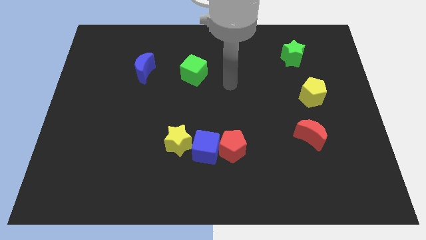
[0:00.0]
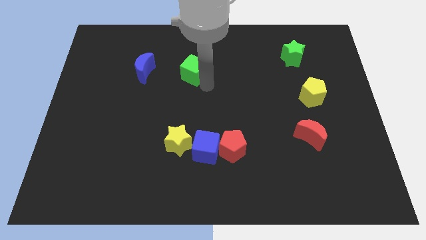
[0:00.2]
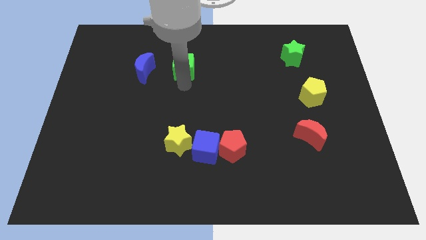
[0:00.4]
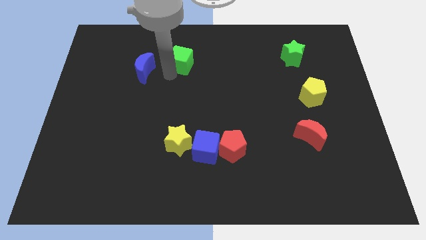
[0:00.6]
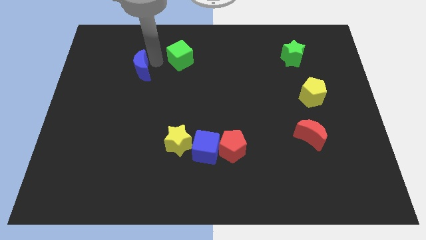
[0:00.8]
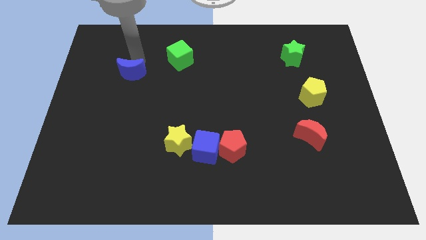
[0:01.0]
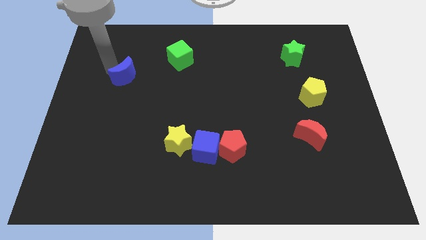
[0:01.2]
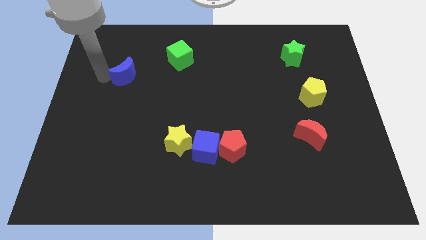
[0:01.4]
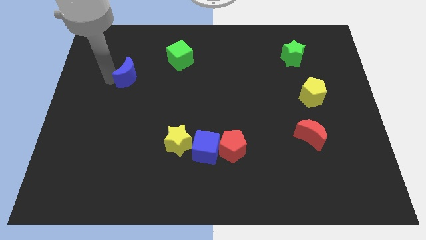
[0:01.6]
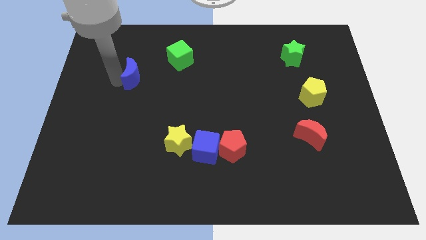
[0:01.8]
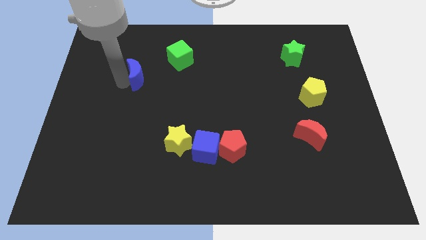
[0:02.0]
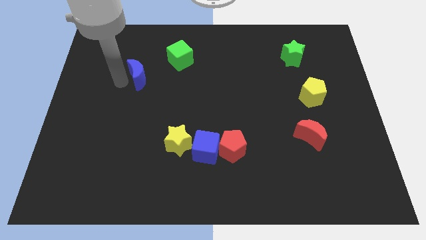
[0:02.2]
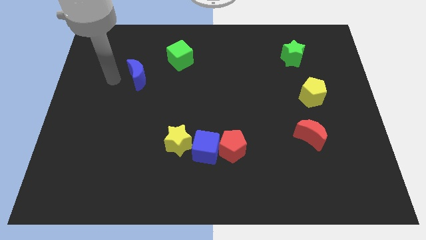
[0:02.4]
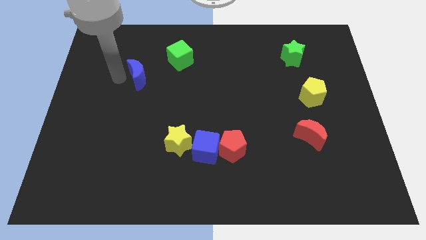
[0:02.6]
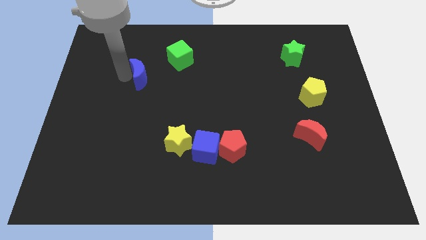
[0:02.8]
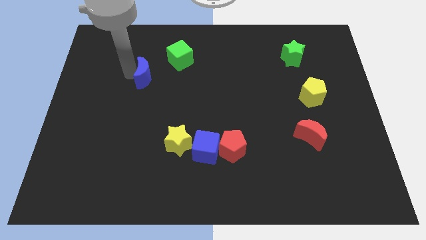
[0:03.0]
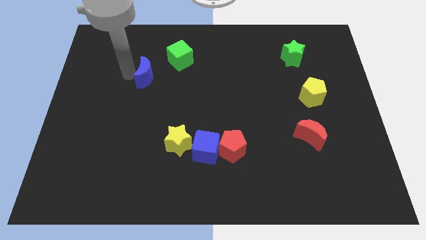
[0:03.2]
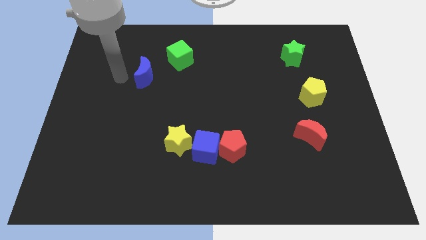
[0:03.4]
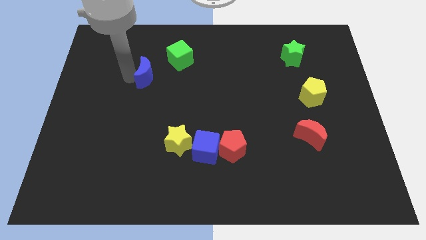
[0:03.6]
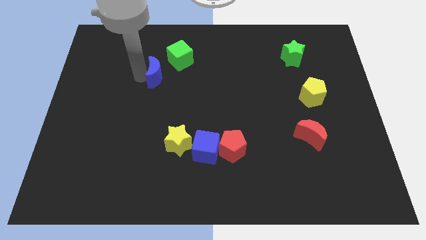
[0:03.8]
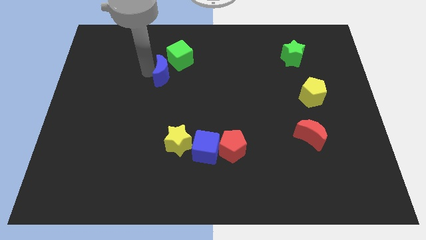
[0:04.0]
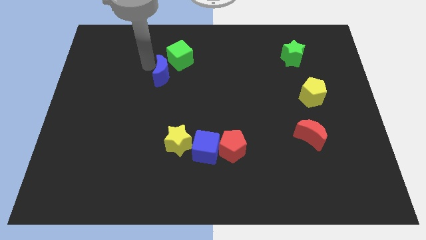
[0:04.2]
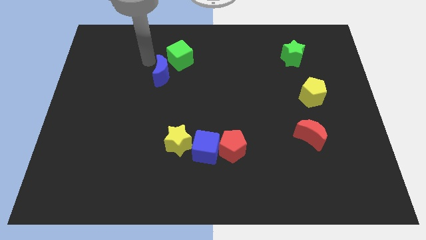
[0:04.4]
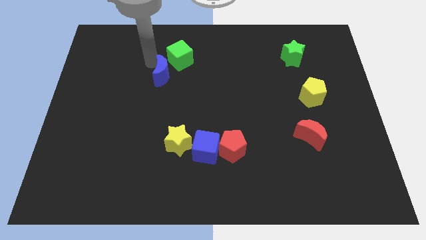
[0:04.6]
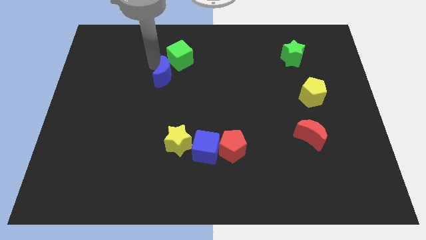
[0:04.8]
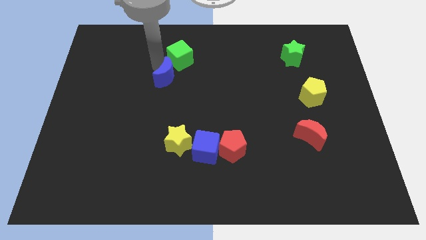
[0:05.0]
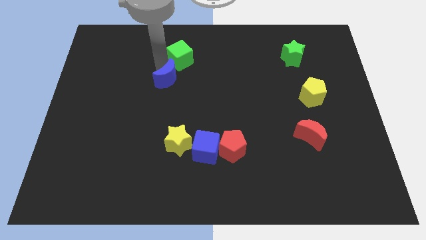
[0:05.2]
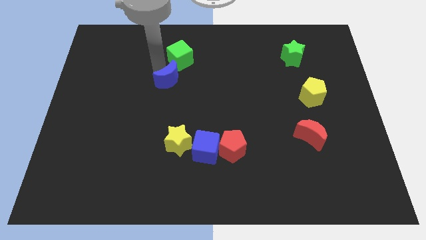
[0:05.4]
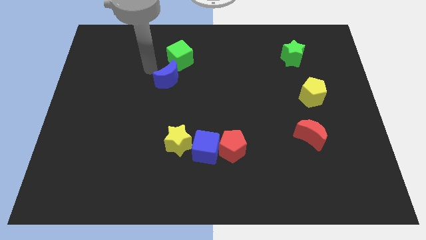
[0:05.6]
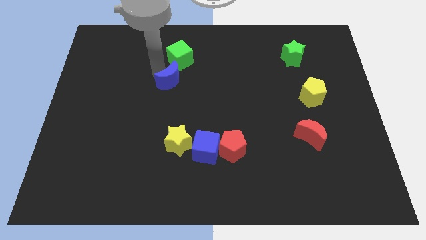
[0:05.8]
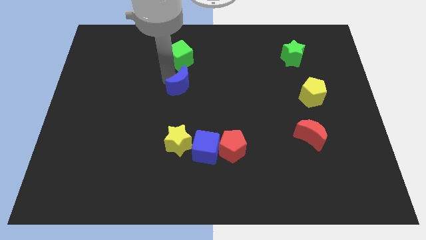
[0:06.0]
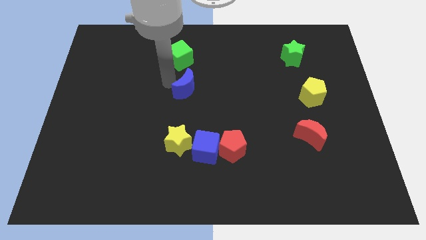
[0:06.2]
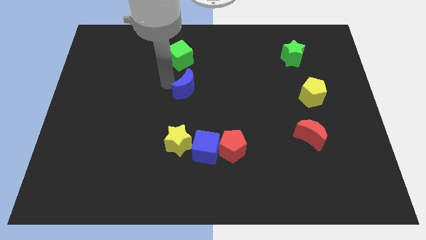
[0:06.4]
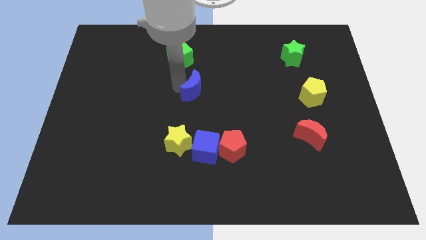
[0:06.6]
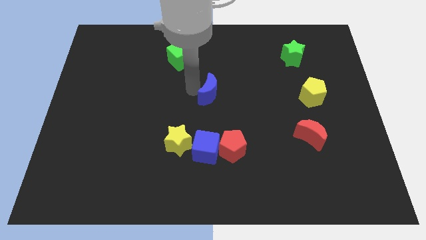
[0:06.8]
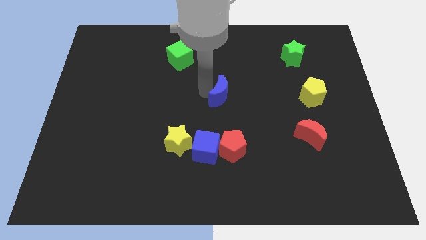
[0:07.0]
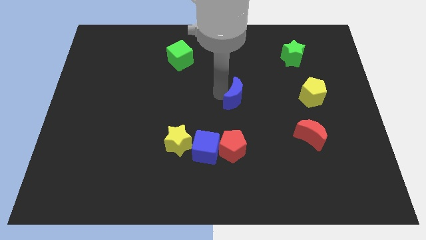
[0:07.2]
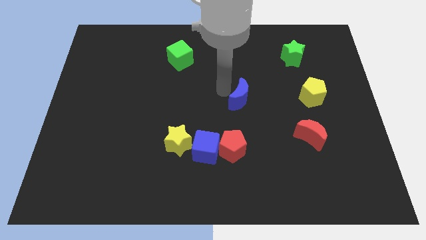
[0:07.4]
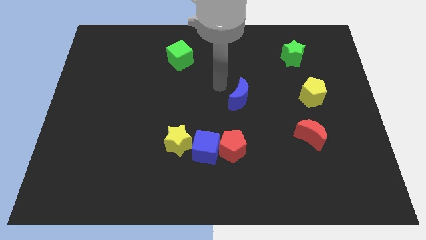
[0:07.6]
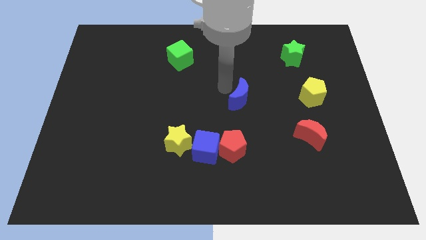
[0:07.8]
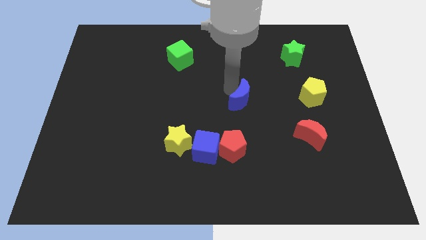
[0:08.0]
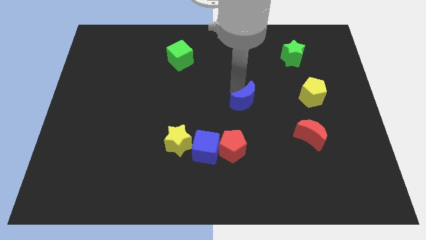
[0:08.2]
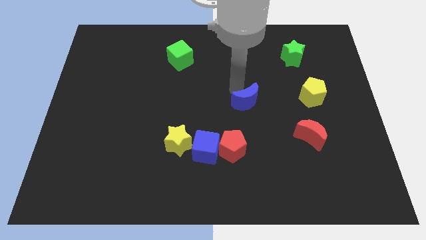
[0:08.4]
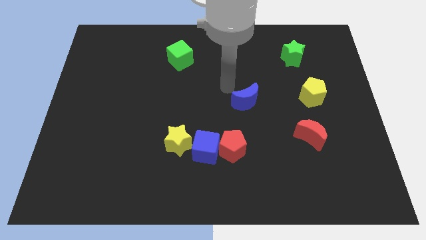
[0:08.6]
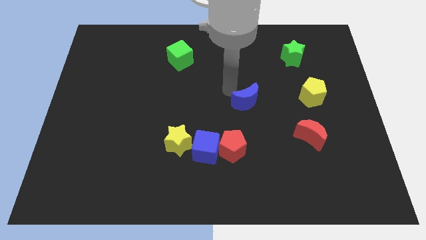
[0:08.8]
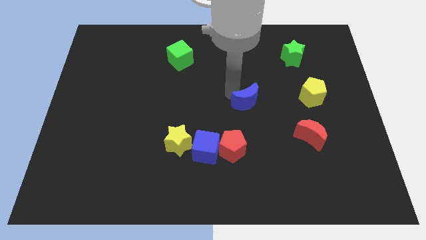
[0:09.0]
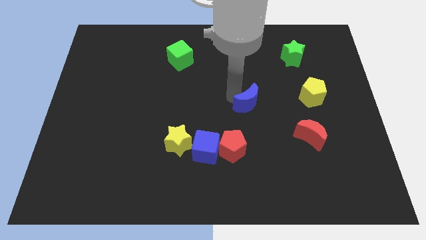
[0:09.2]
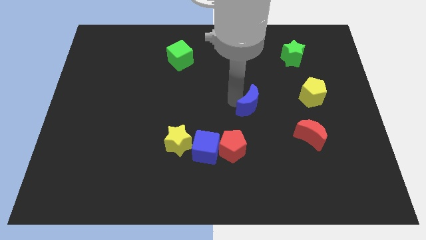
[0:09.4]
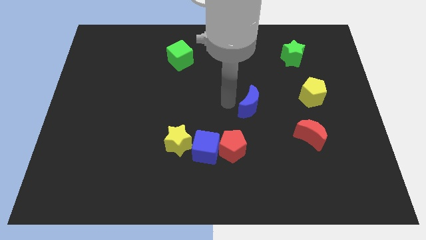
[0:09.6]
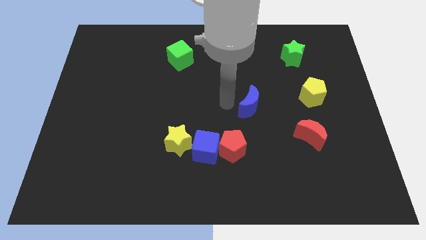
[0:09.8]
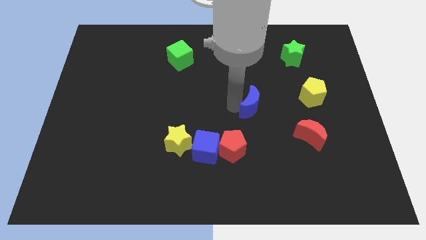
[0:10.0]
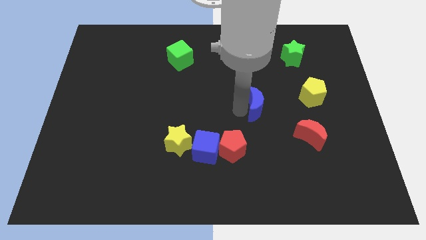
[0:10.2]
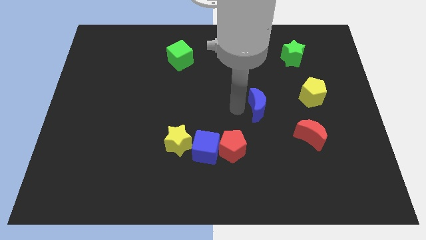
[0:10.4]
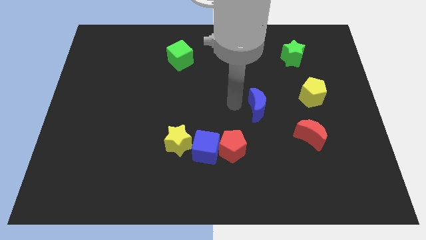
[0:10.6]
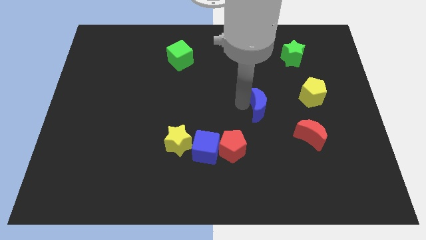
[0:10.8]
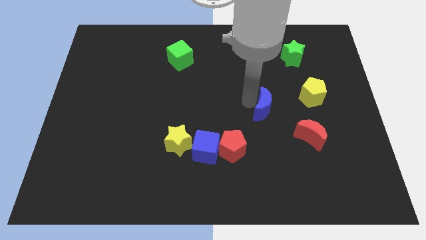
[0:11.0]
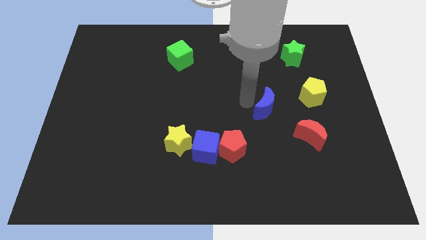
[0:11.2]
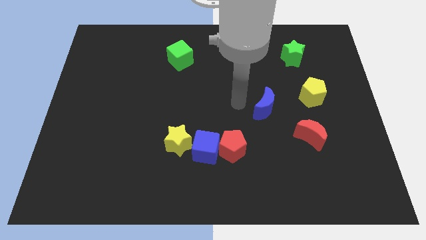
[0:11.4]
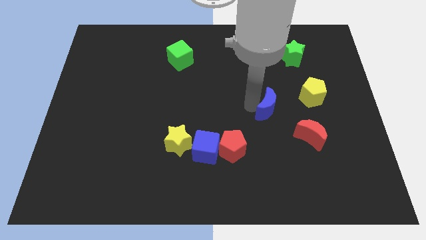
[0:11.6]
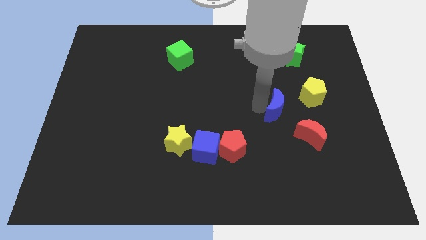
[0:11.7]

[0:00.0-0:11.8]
push the blue moon diagonally down and to the left of the yellow pentagon

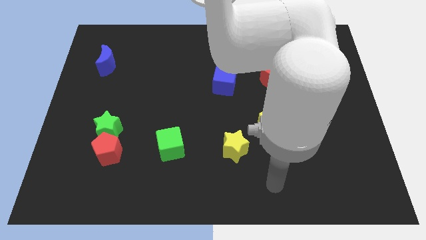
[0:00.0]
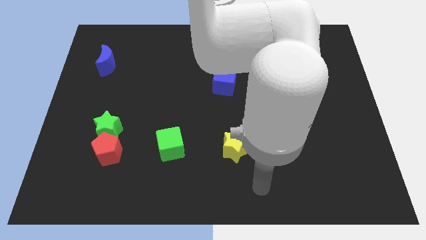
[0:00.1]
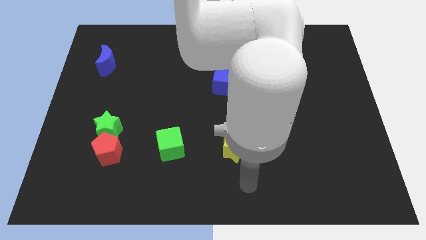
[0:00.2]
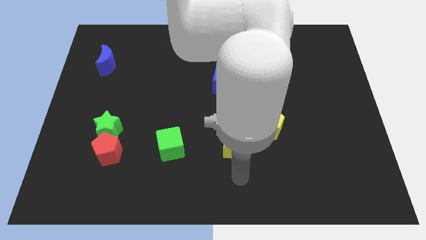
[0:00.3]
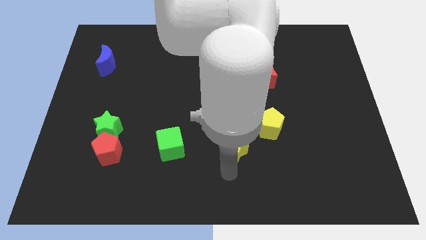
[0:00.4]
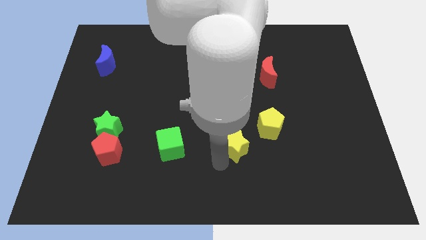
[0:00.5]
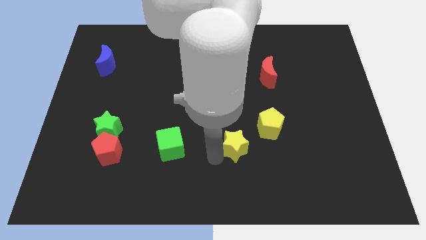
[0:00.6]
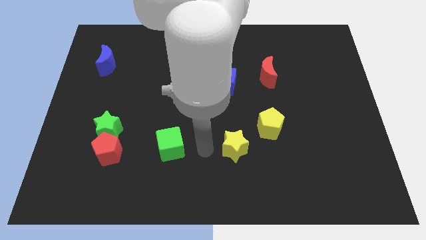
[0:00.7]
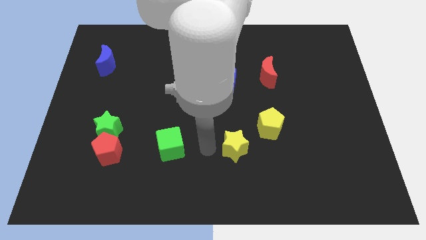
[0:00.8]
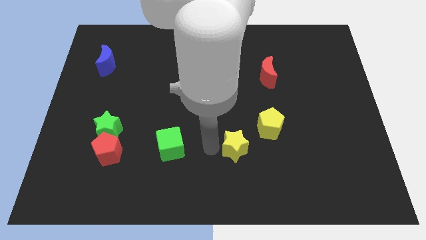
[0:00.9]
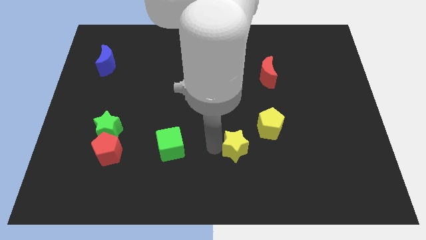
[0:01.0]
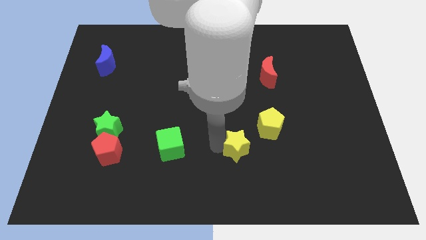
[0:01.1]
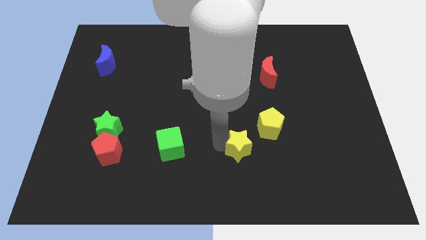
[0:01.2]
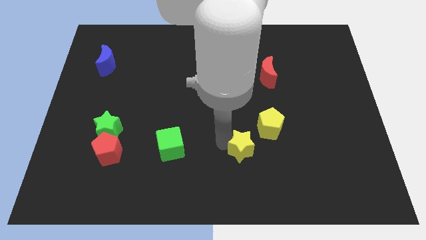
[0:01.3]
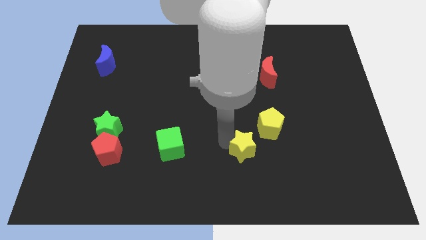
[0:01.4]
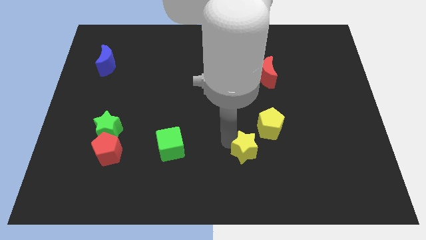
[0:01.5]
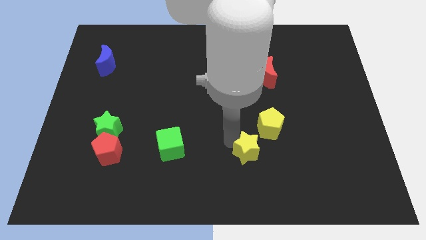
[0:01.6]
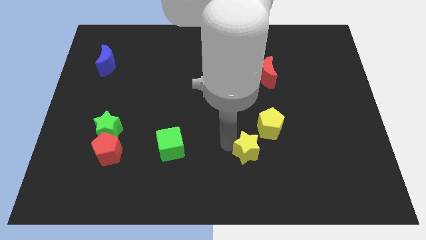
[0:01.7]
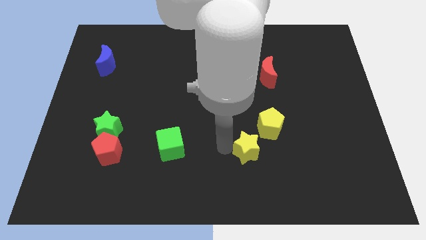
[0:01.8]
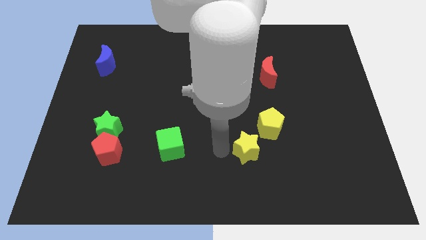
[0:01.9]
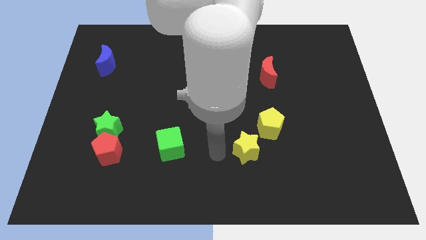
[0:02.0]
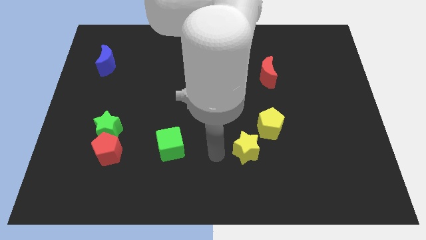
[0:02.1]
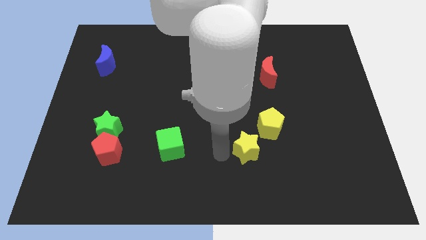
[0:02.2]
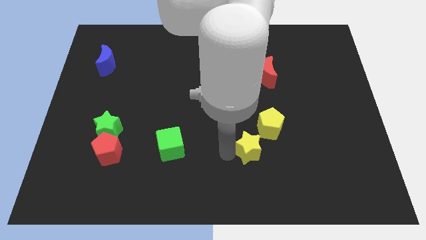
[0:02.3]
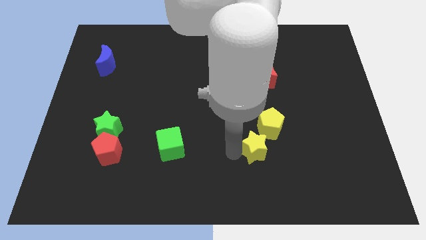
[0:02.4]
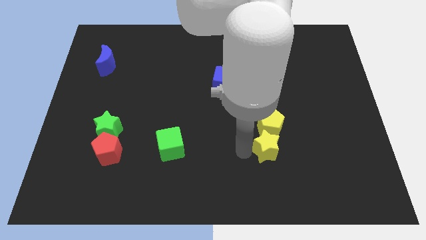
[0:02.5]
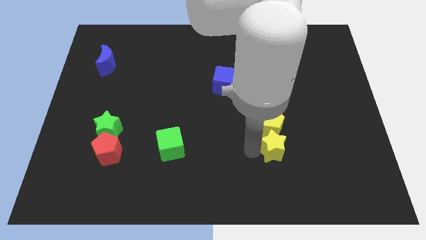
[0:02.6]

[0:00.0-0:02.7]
slide the yellow star to the bottom right side of the yellow pentagon
